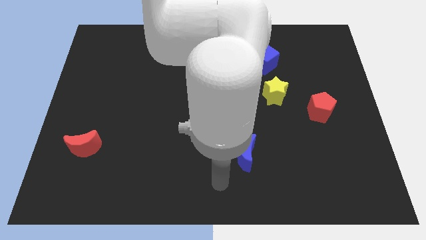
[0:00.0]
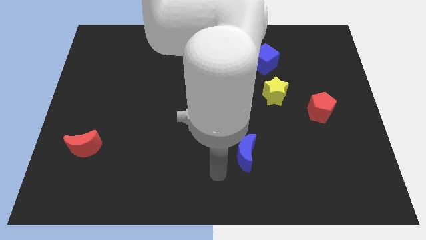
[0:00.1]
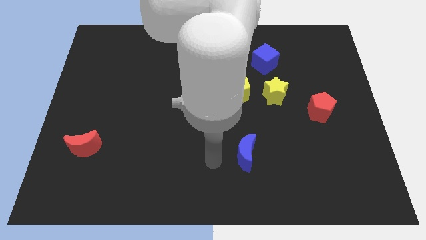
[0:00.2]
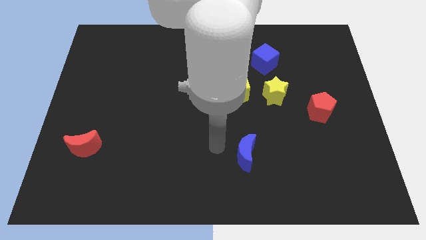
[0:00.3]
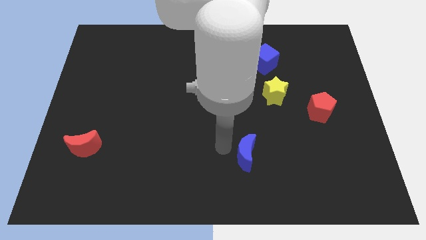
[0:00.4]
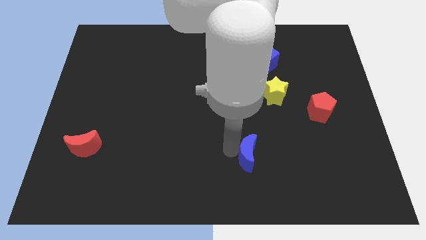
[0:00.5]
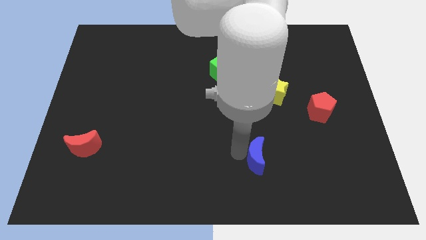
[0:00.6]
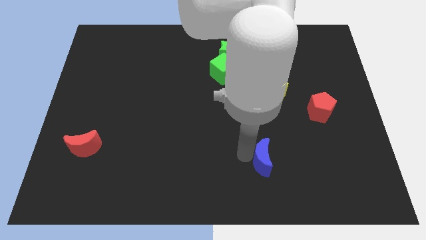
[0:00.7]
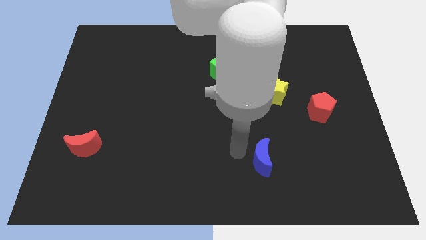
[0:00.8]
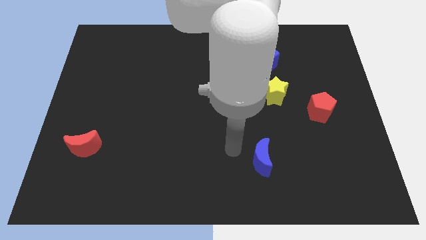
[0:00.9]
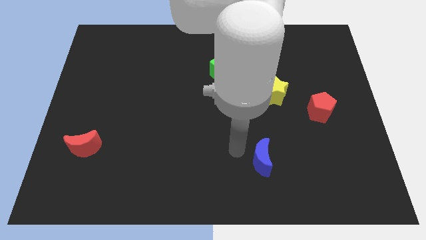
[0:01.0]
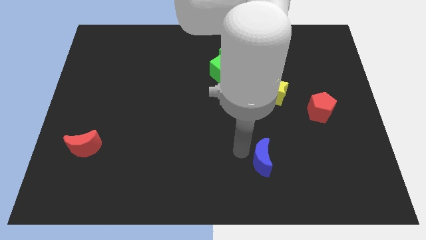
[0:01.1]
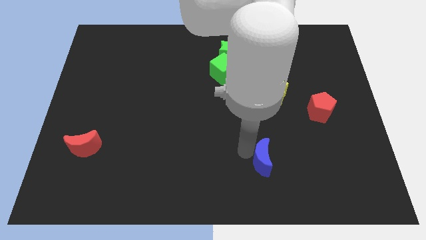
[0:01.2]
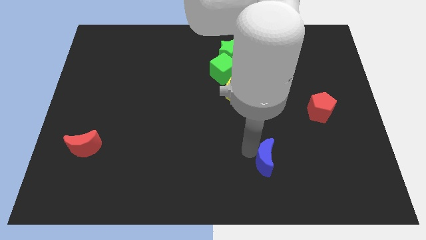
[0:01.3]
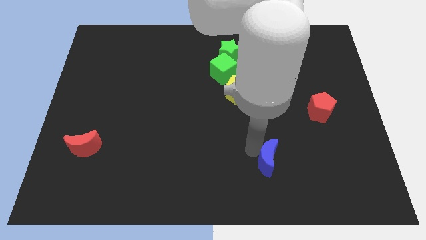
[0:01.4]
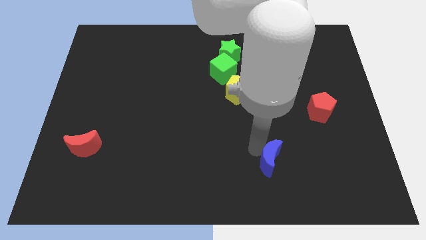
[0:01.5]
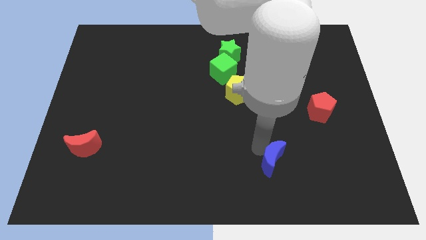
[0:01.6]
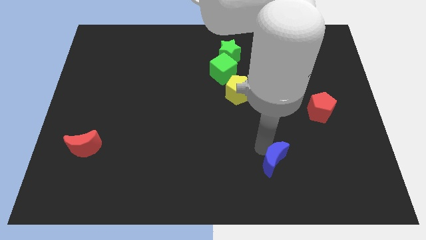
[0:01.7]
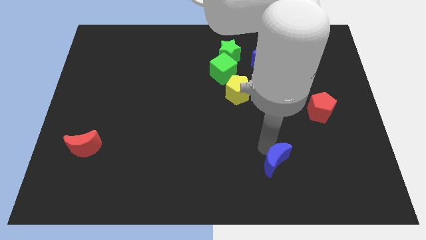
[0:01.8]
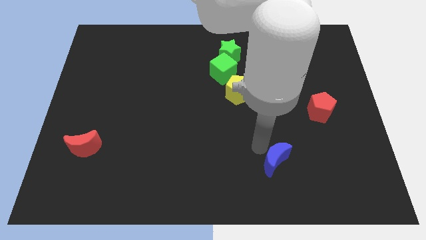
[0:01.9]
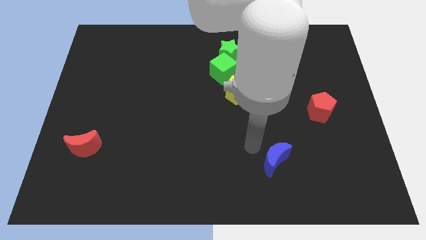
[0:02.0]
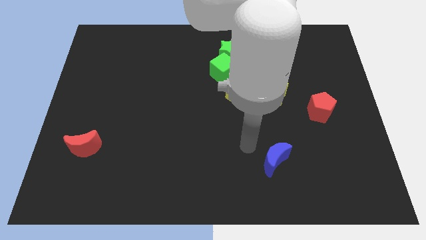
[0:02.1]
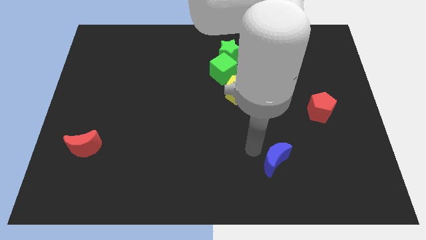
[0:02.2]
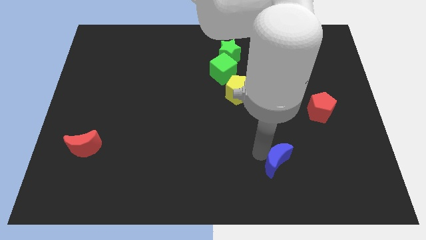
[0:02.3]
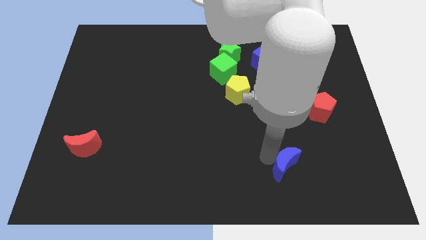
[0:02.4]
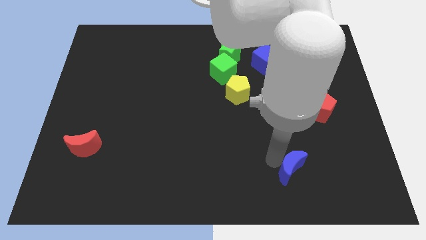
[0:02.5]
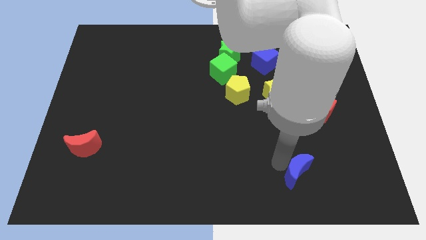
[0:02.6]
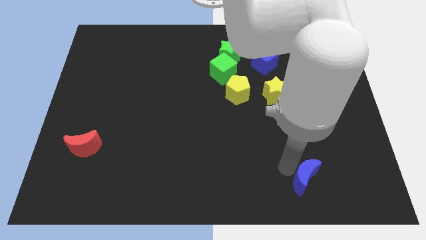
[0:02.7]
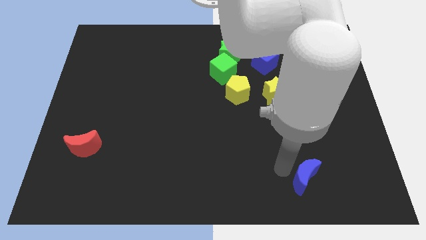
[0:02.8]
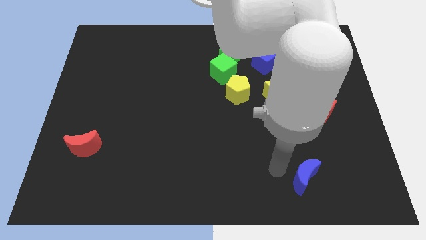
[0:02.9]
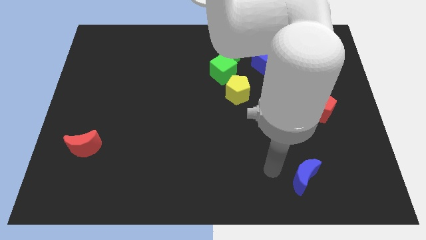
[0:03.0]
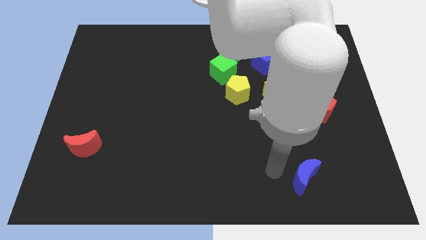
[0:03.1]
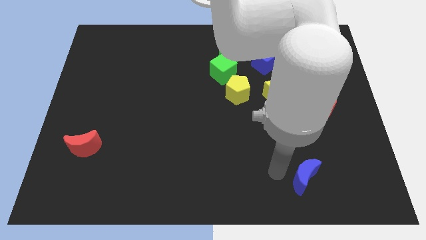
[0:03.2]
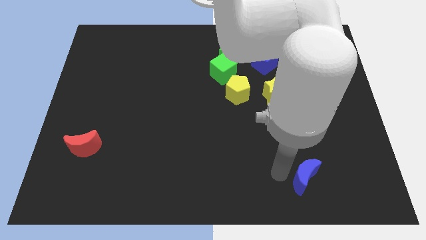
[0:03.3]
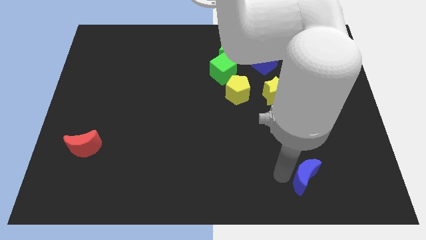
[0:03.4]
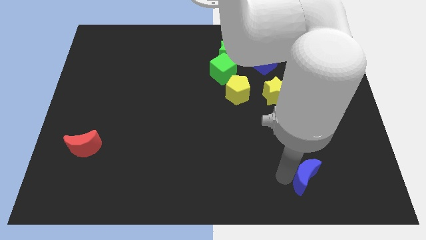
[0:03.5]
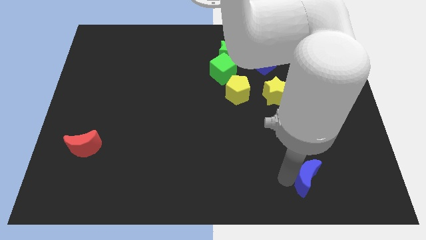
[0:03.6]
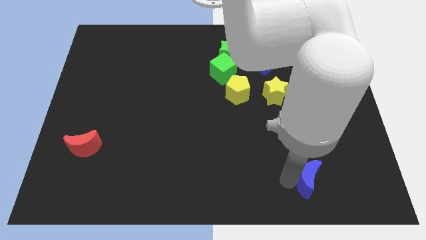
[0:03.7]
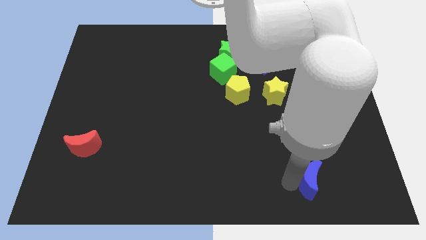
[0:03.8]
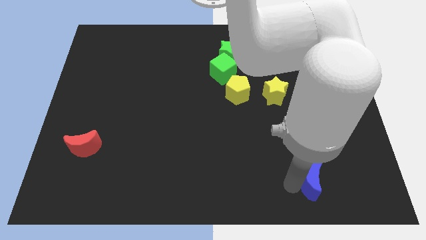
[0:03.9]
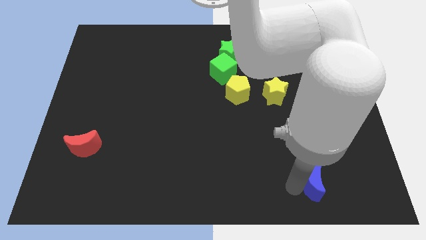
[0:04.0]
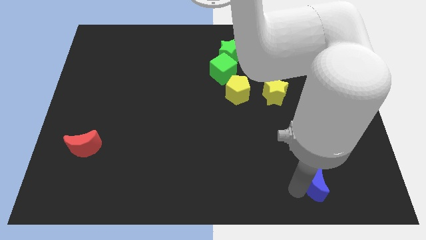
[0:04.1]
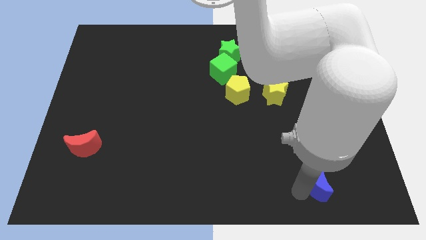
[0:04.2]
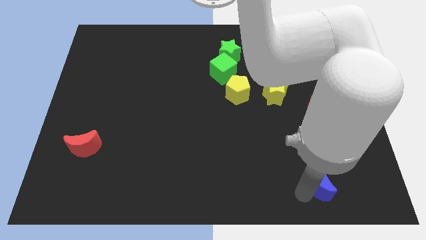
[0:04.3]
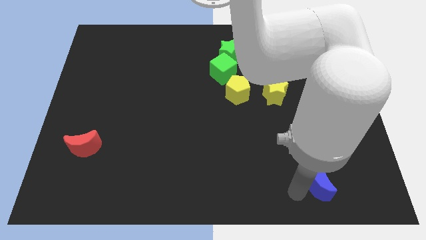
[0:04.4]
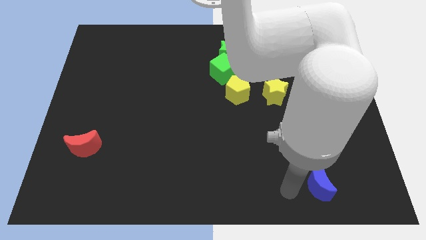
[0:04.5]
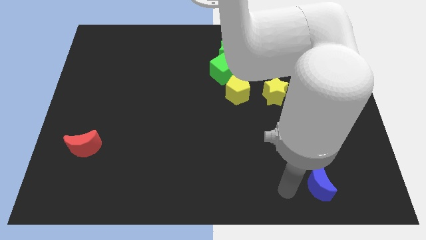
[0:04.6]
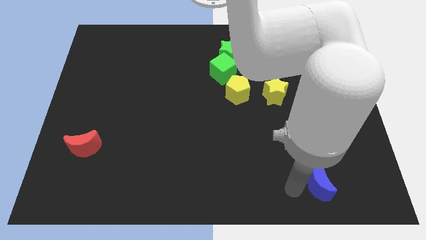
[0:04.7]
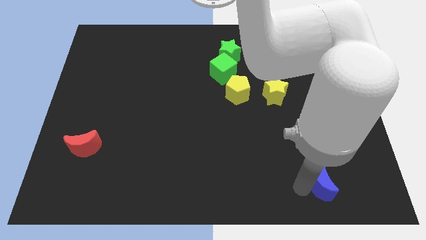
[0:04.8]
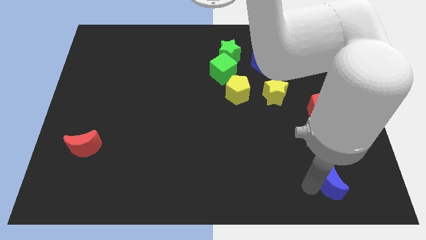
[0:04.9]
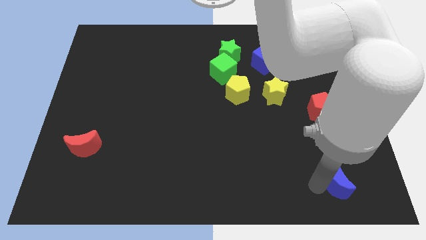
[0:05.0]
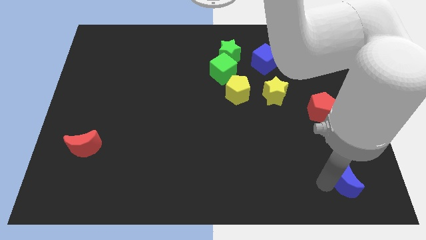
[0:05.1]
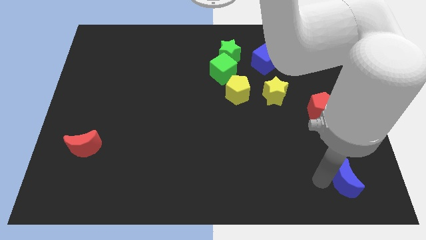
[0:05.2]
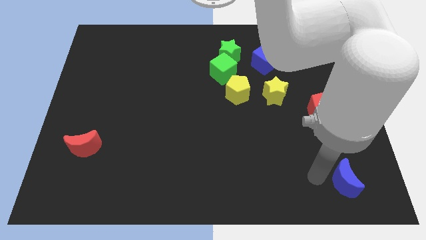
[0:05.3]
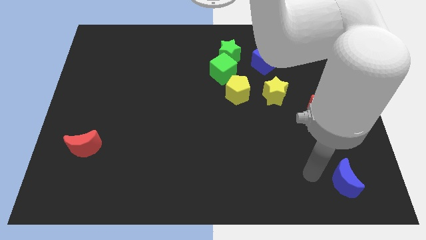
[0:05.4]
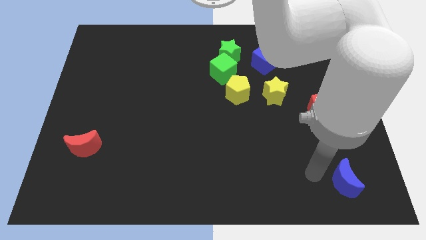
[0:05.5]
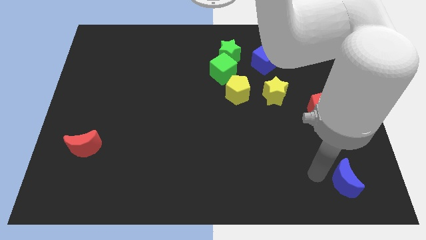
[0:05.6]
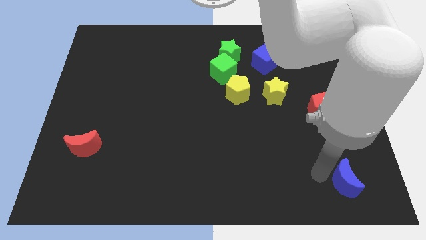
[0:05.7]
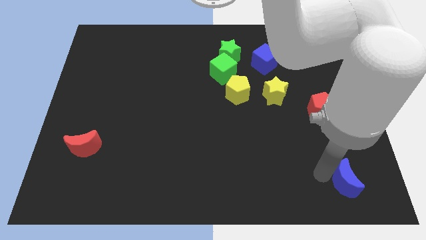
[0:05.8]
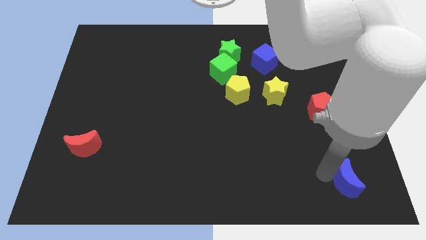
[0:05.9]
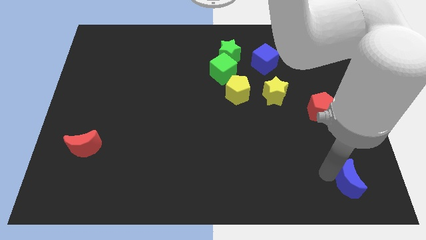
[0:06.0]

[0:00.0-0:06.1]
put the blue moon to the bottom right of the board
